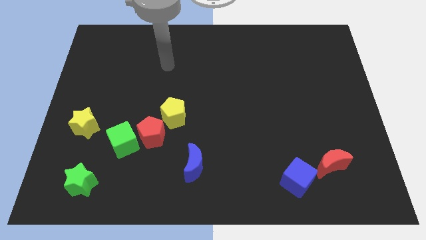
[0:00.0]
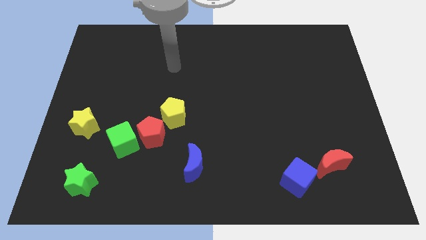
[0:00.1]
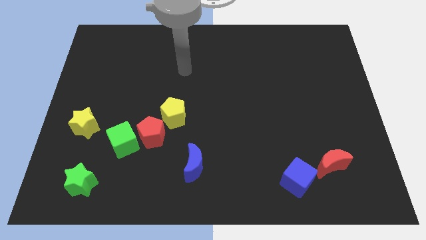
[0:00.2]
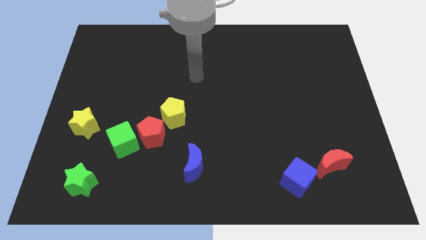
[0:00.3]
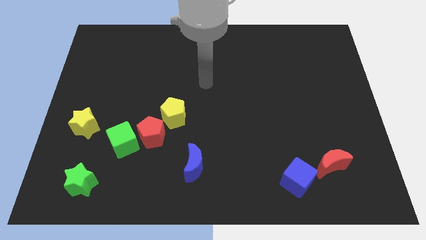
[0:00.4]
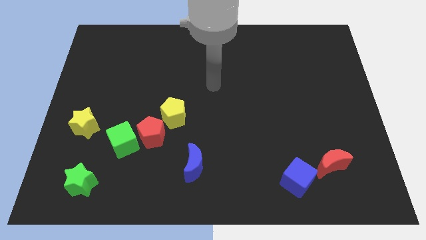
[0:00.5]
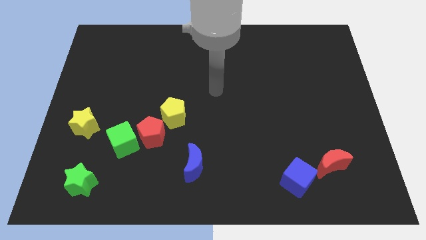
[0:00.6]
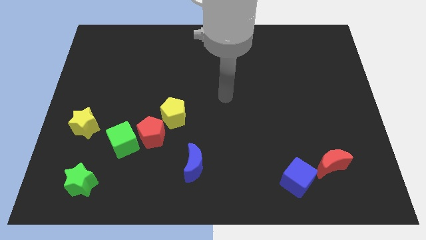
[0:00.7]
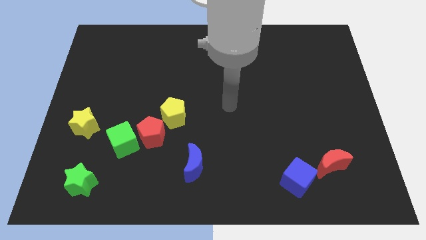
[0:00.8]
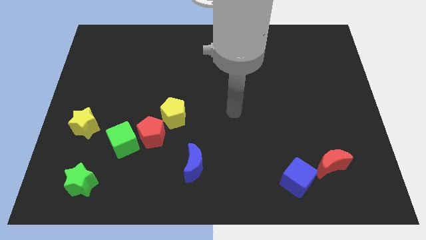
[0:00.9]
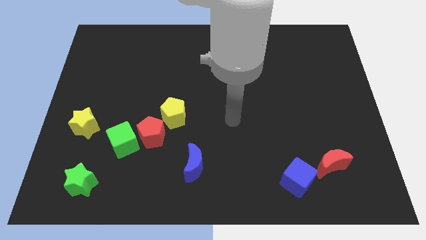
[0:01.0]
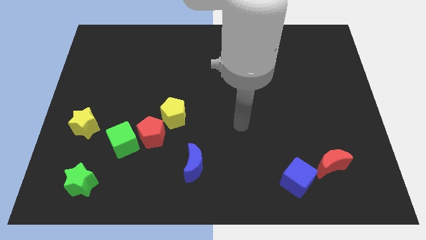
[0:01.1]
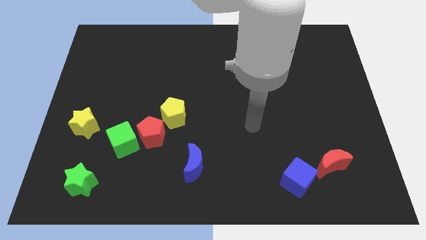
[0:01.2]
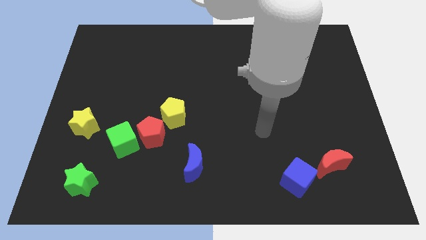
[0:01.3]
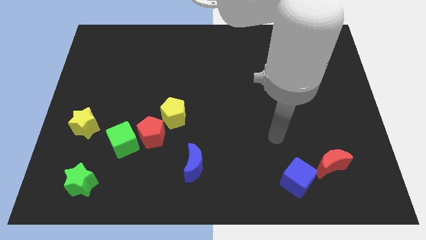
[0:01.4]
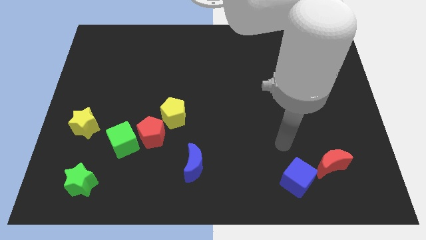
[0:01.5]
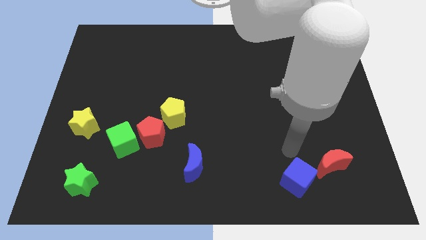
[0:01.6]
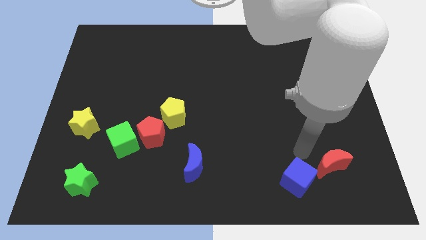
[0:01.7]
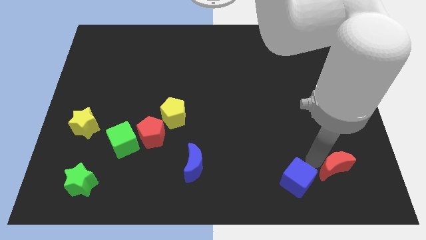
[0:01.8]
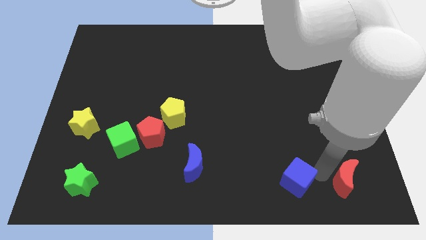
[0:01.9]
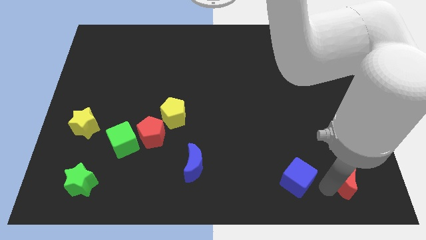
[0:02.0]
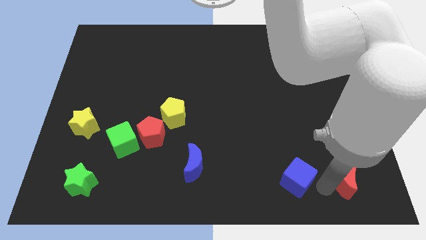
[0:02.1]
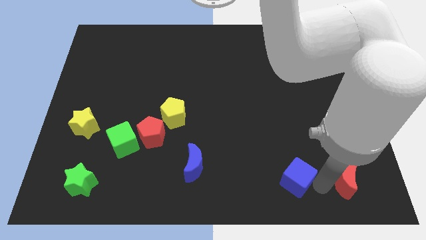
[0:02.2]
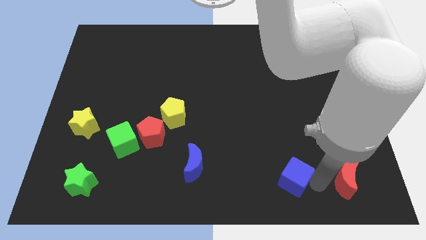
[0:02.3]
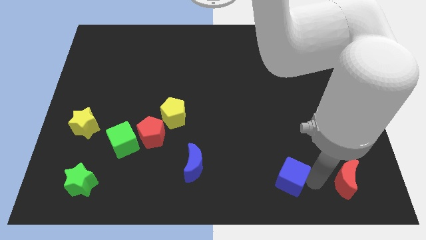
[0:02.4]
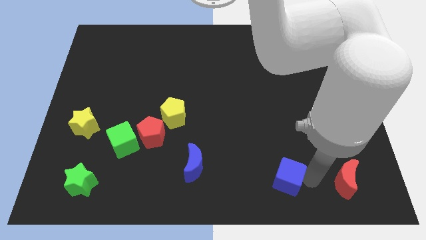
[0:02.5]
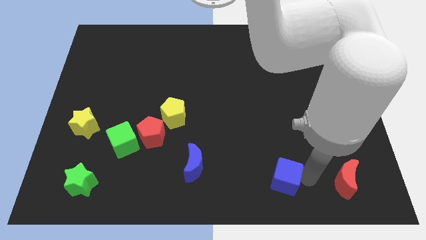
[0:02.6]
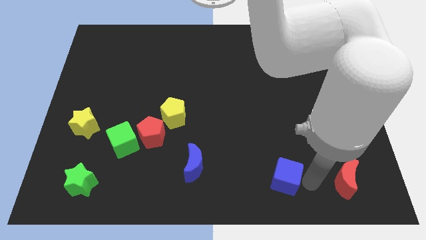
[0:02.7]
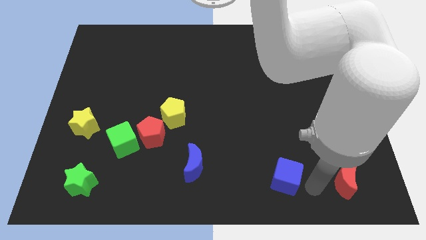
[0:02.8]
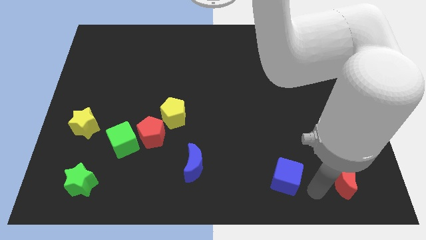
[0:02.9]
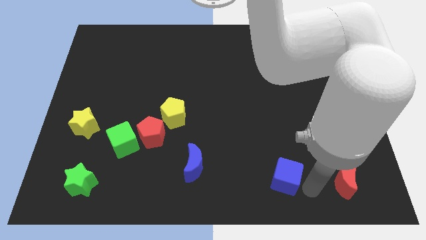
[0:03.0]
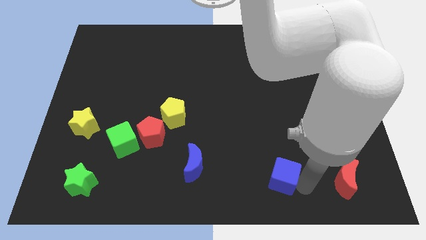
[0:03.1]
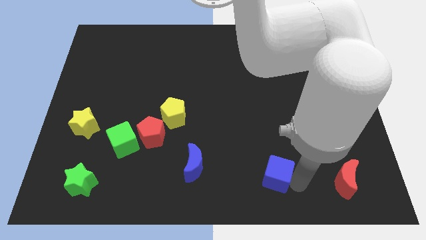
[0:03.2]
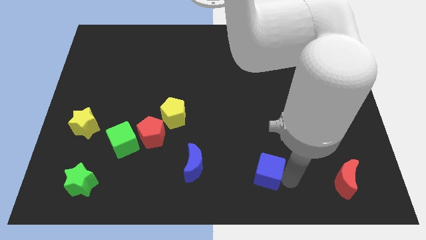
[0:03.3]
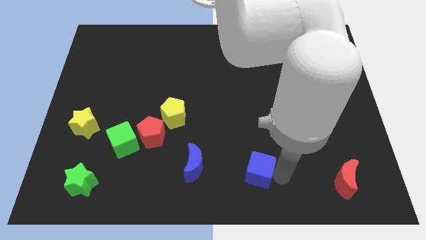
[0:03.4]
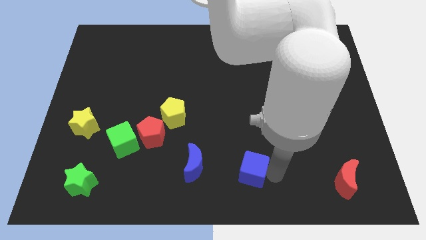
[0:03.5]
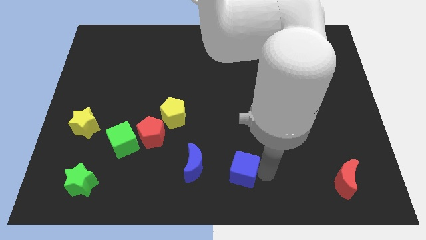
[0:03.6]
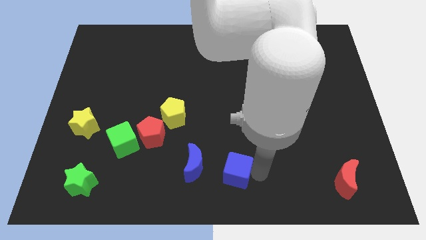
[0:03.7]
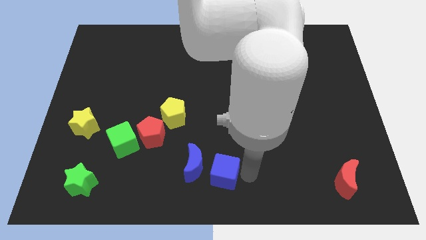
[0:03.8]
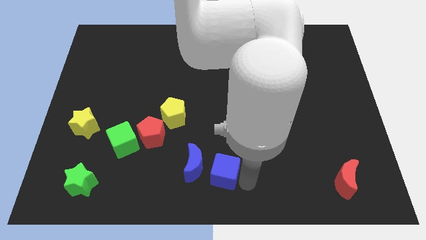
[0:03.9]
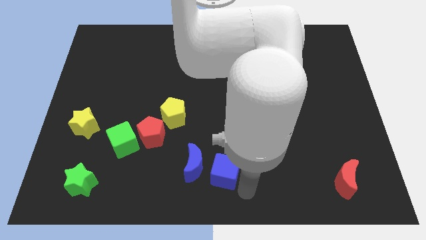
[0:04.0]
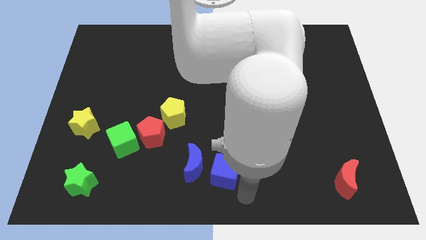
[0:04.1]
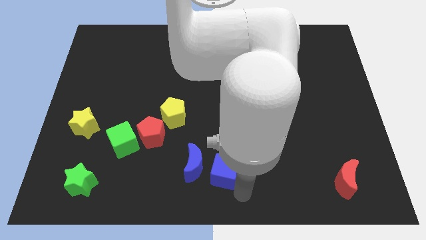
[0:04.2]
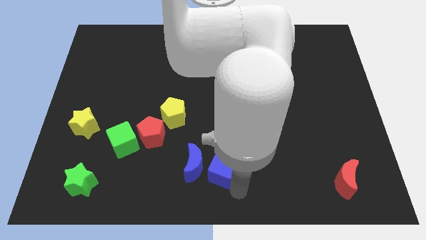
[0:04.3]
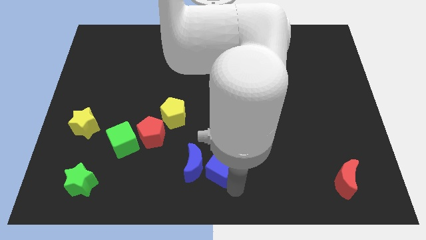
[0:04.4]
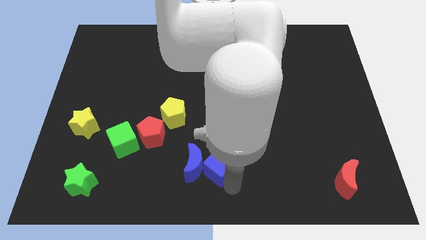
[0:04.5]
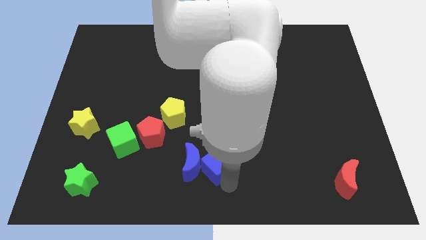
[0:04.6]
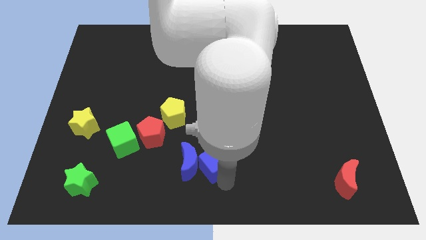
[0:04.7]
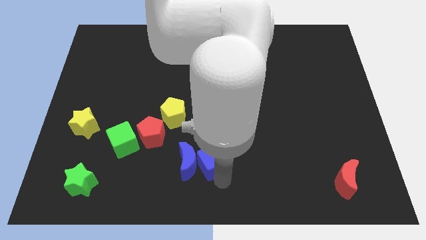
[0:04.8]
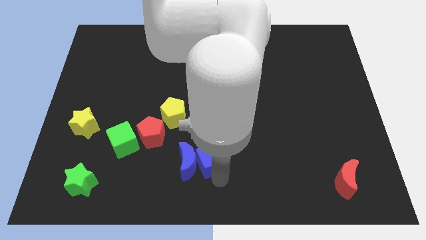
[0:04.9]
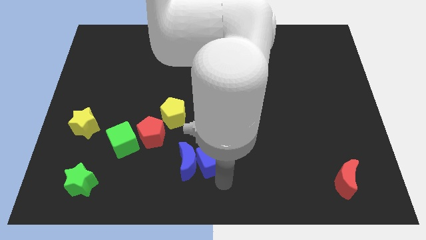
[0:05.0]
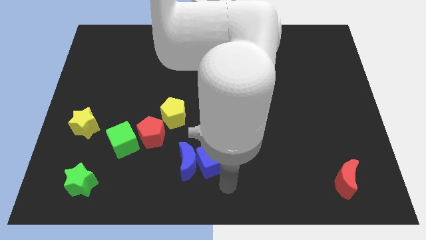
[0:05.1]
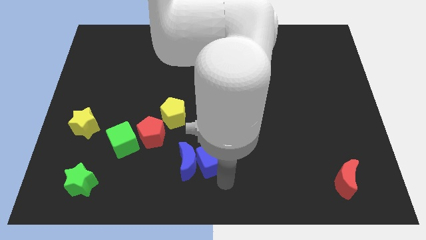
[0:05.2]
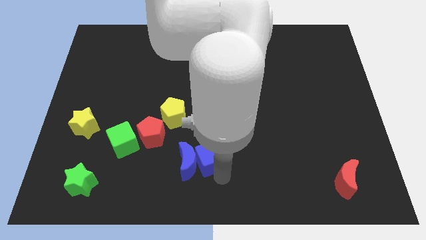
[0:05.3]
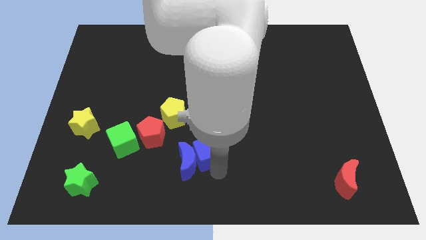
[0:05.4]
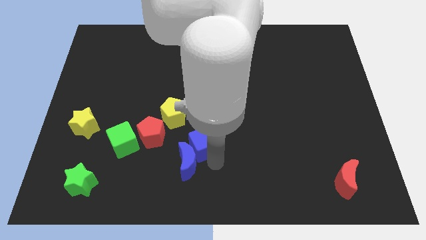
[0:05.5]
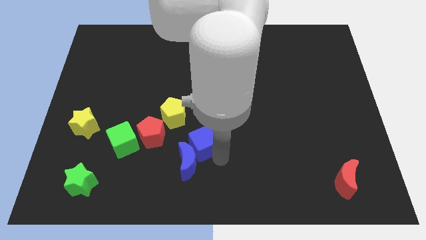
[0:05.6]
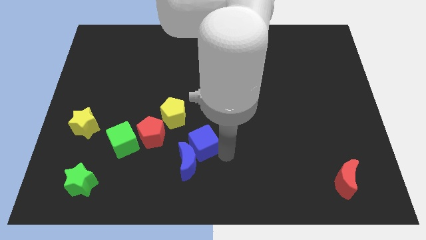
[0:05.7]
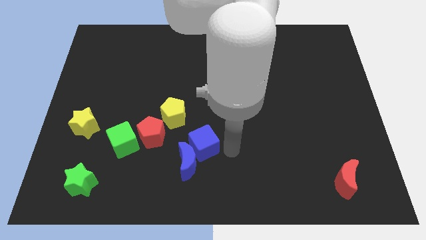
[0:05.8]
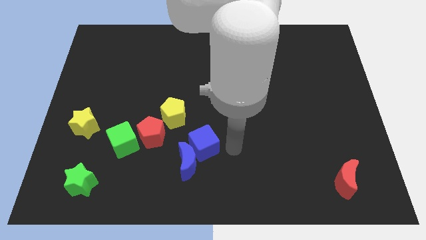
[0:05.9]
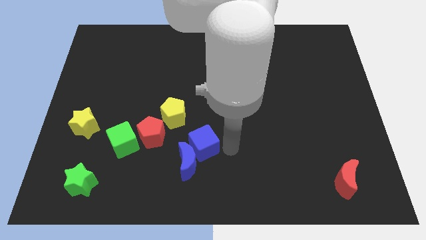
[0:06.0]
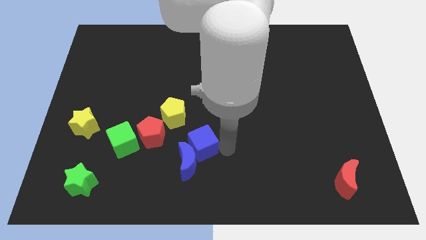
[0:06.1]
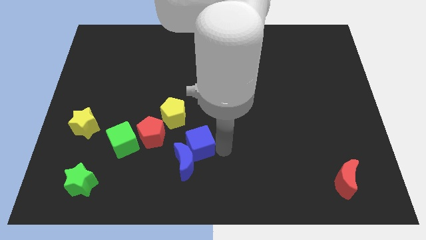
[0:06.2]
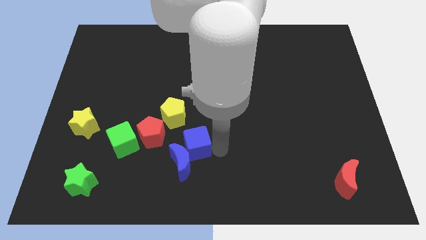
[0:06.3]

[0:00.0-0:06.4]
put the blue cube to the right side of the green cube

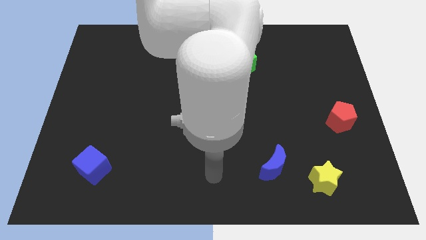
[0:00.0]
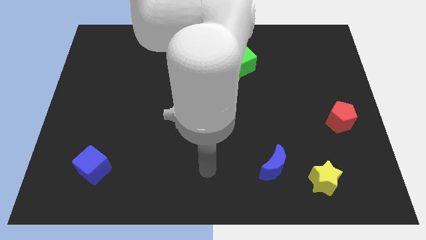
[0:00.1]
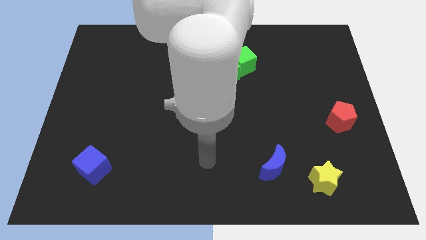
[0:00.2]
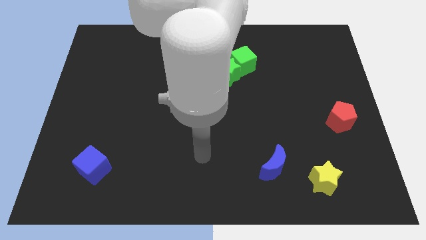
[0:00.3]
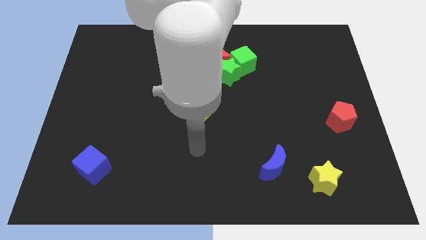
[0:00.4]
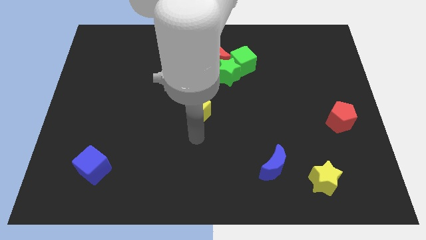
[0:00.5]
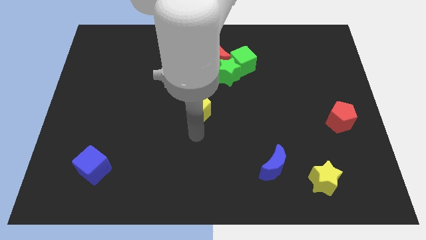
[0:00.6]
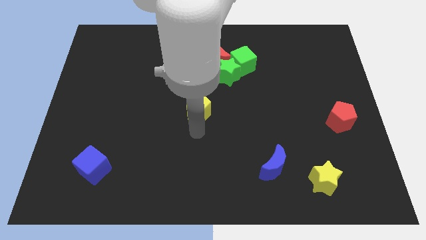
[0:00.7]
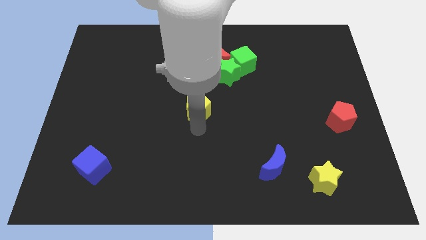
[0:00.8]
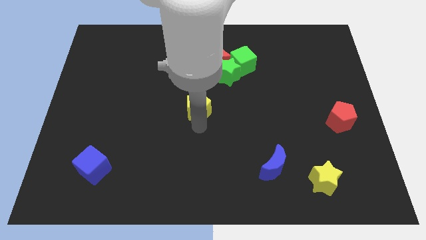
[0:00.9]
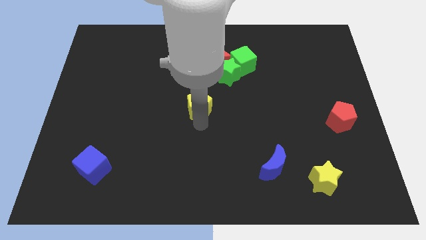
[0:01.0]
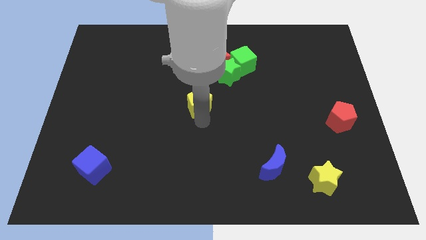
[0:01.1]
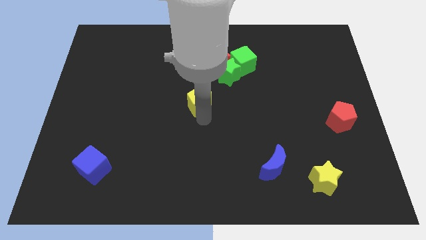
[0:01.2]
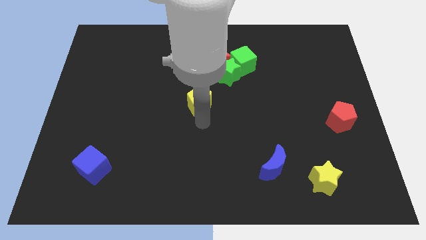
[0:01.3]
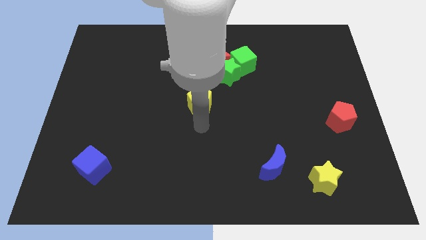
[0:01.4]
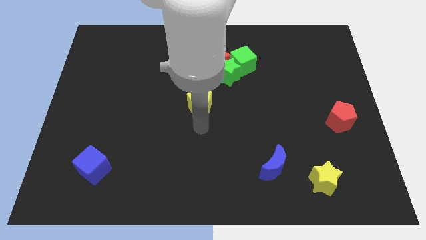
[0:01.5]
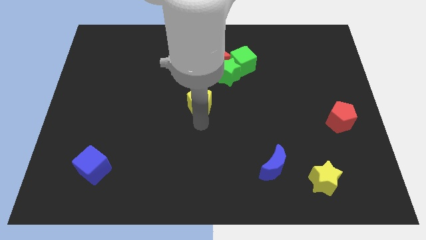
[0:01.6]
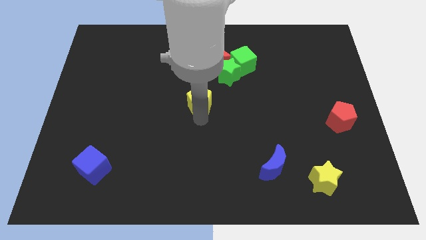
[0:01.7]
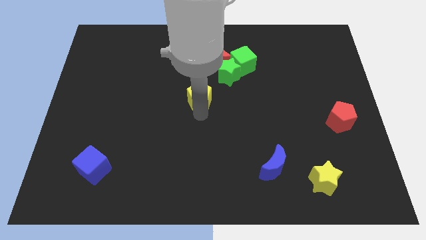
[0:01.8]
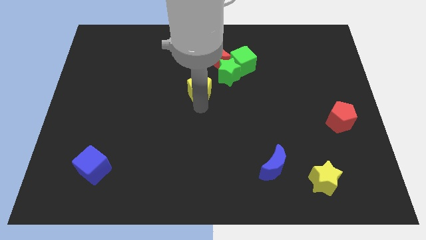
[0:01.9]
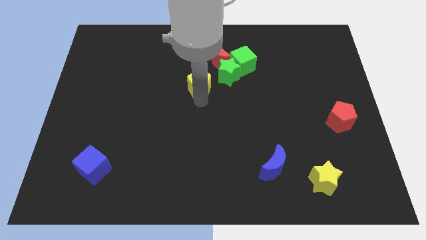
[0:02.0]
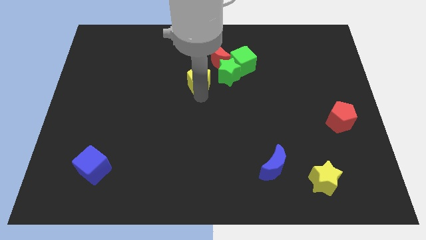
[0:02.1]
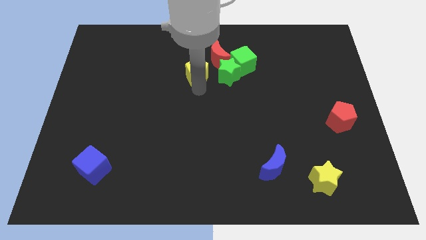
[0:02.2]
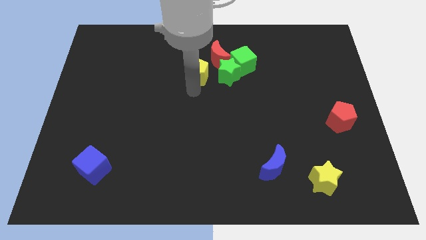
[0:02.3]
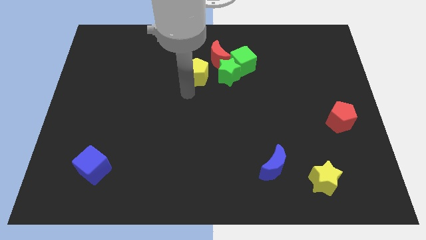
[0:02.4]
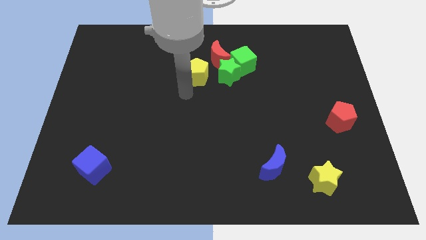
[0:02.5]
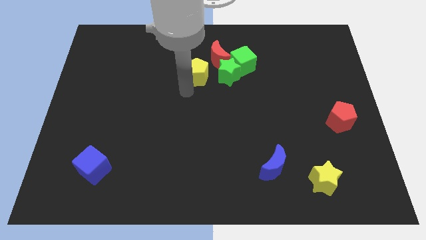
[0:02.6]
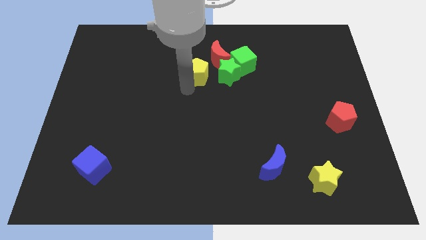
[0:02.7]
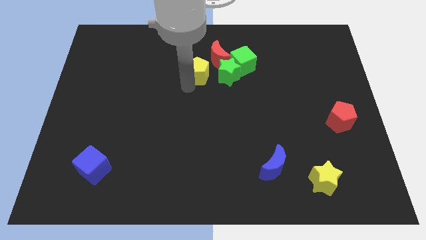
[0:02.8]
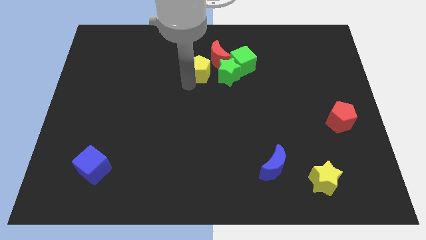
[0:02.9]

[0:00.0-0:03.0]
slide the yellow pentagon diagonally up and to the left of the green star
